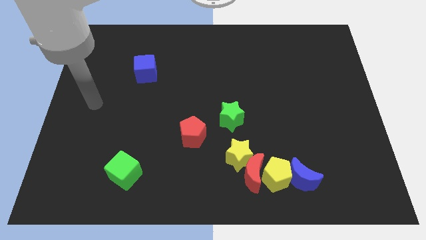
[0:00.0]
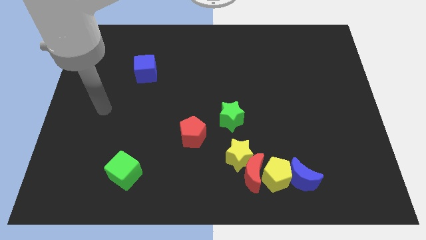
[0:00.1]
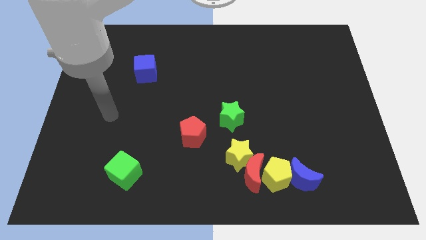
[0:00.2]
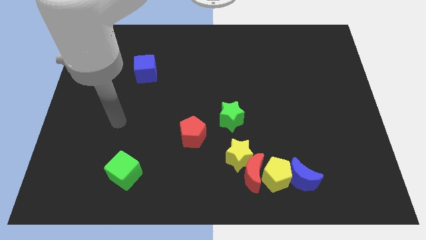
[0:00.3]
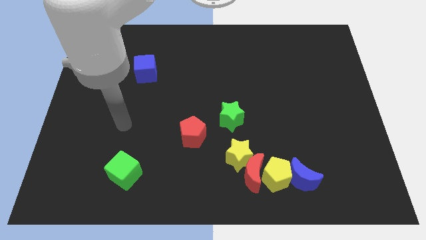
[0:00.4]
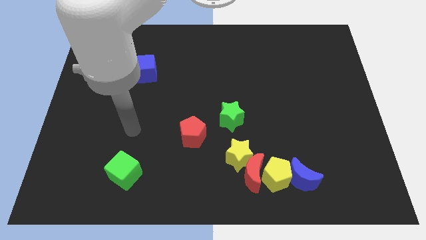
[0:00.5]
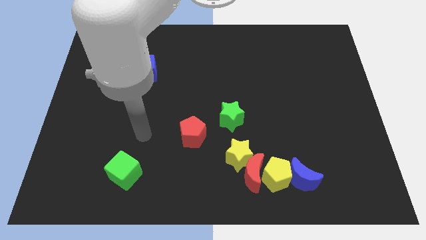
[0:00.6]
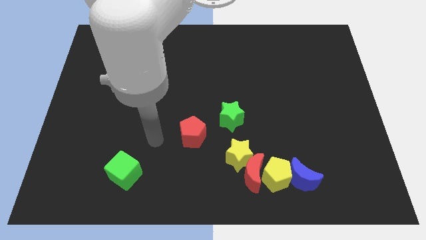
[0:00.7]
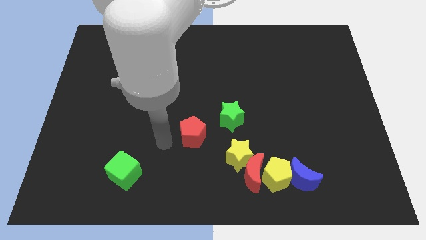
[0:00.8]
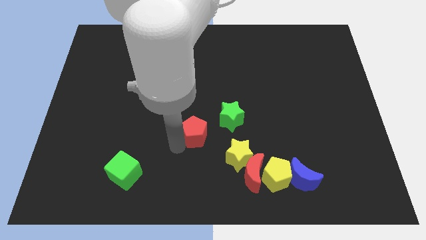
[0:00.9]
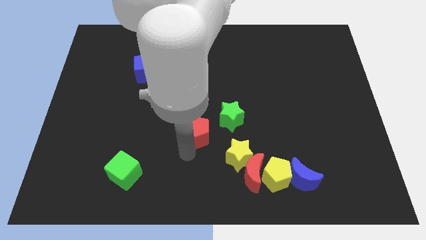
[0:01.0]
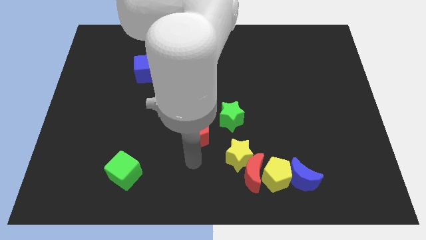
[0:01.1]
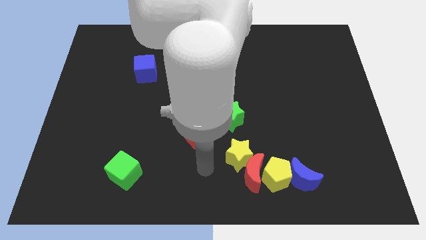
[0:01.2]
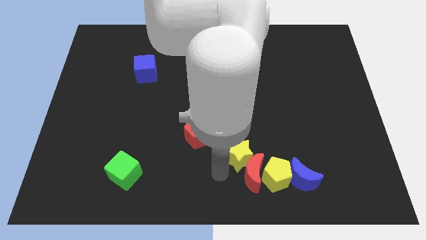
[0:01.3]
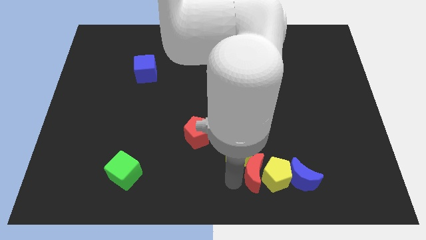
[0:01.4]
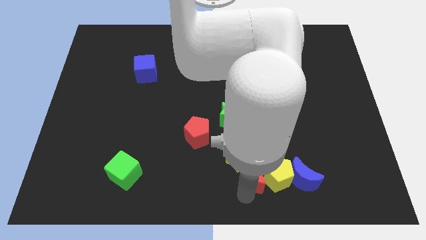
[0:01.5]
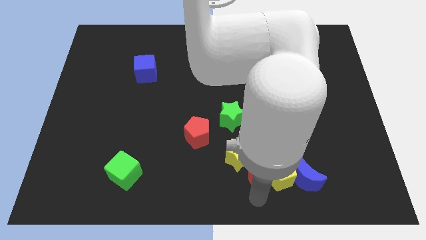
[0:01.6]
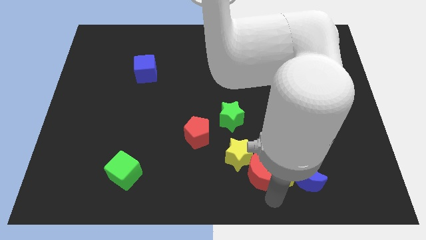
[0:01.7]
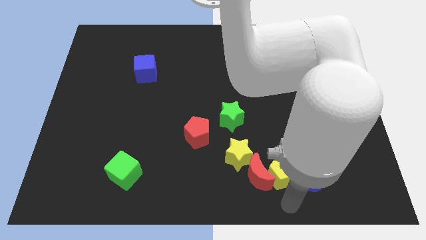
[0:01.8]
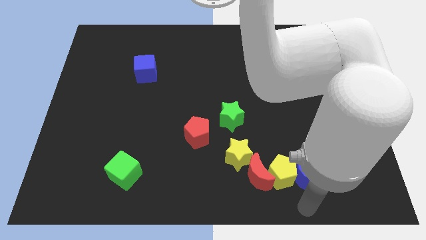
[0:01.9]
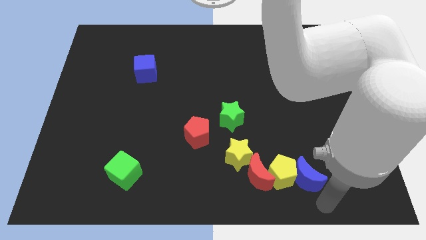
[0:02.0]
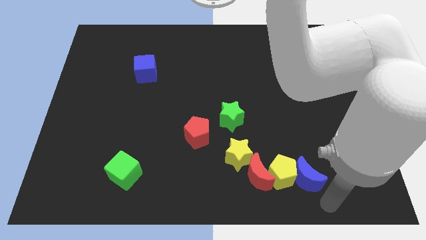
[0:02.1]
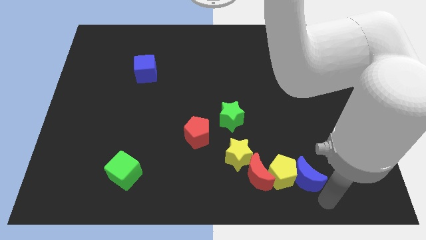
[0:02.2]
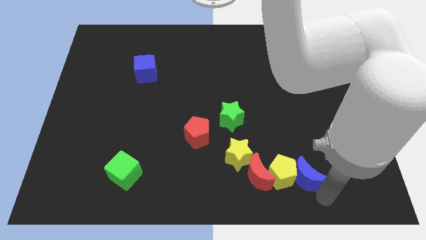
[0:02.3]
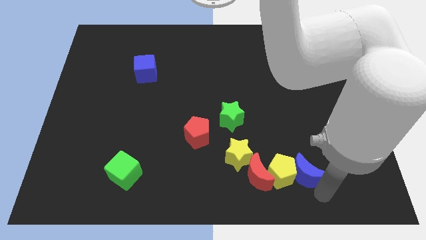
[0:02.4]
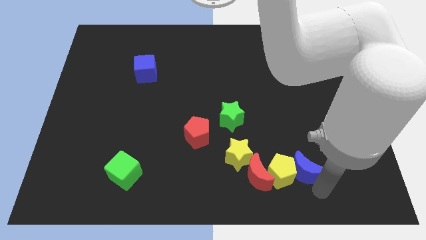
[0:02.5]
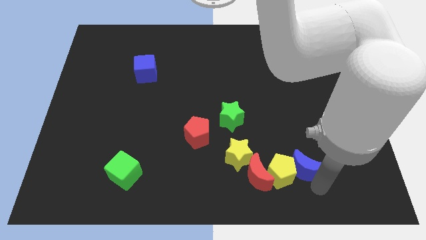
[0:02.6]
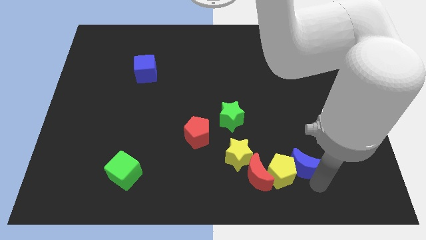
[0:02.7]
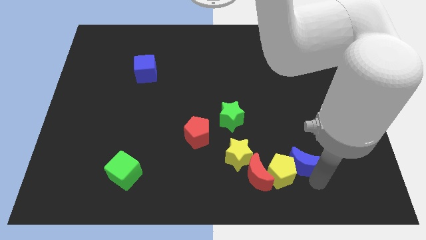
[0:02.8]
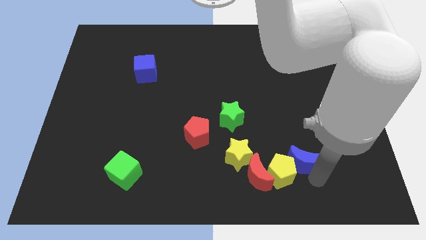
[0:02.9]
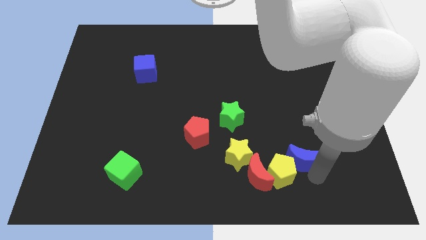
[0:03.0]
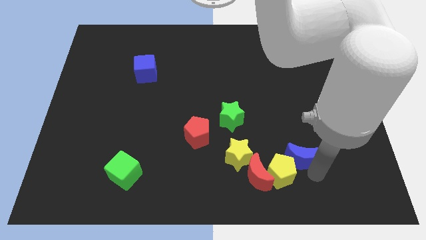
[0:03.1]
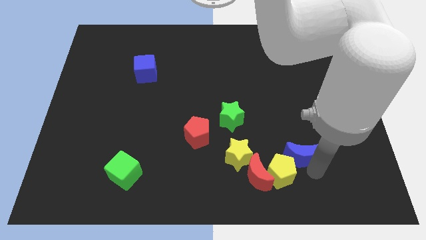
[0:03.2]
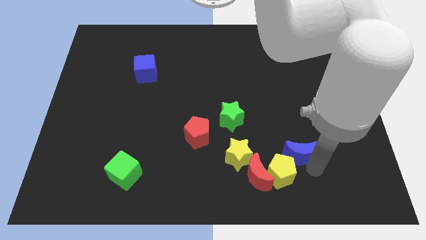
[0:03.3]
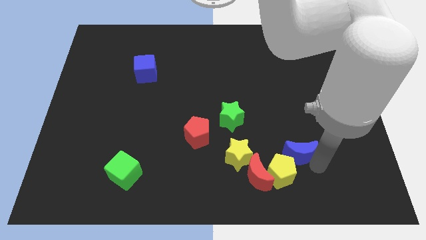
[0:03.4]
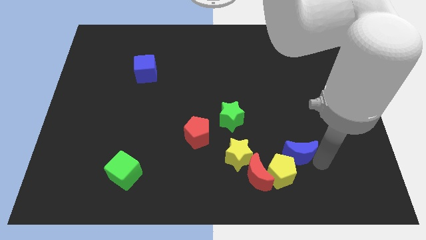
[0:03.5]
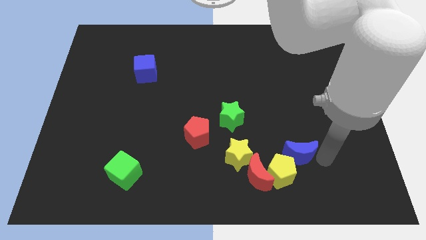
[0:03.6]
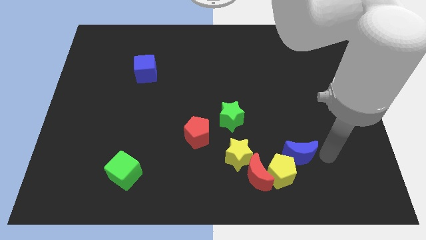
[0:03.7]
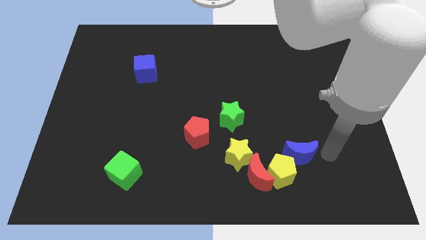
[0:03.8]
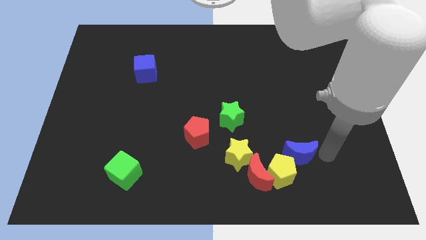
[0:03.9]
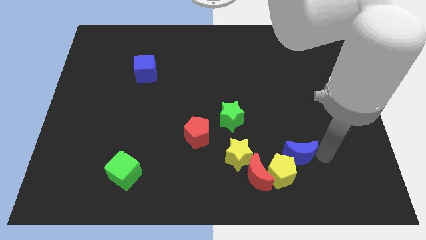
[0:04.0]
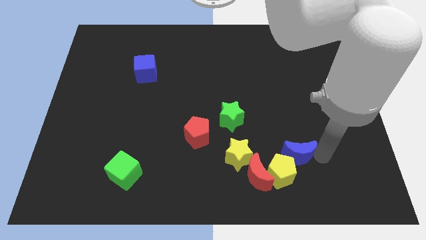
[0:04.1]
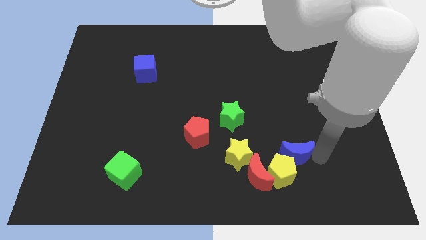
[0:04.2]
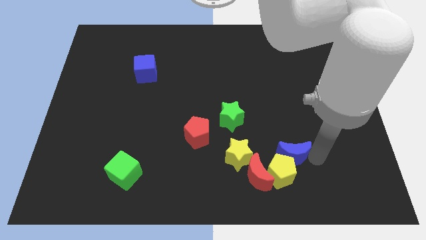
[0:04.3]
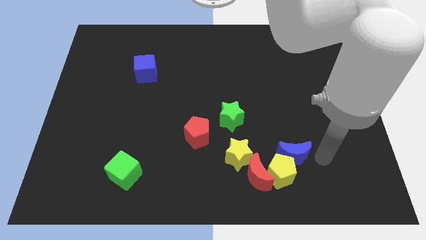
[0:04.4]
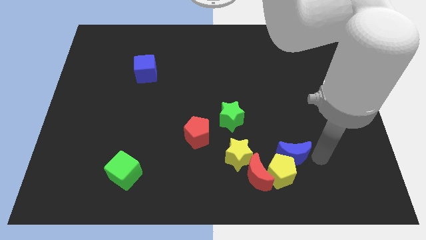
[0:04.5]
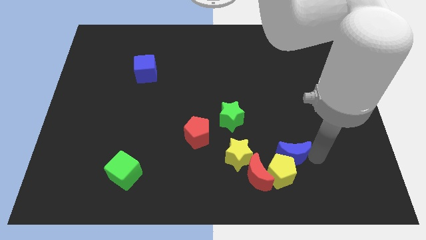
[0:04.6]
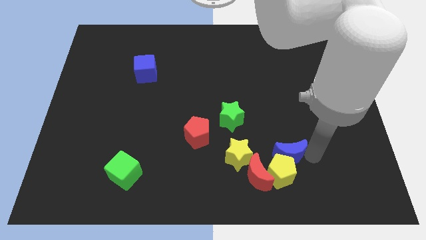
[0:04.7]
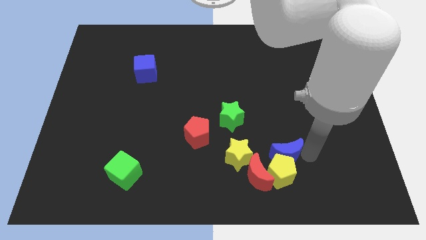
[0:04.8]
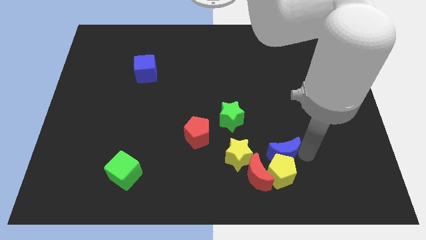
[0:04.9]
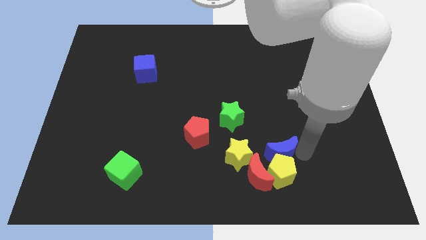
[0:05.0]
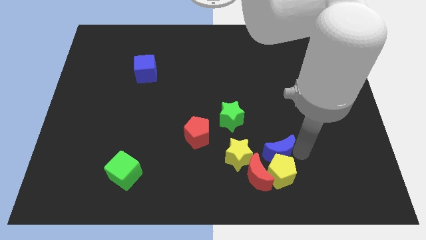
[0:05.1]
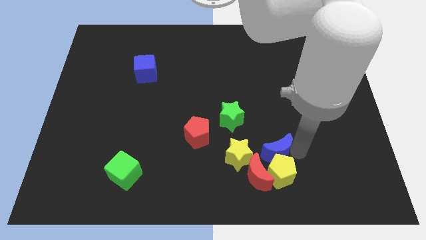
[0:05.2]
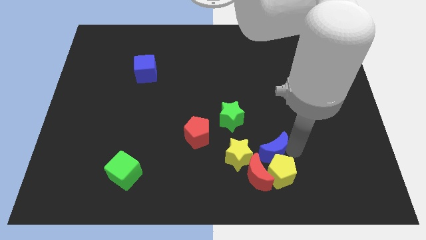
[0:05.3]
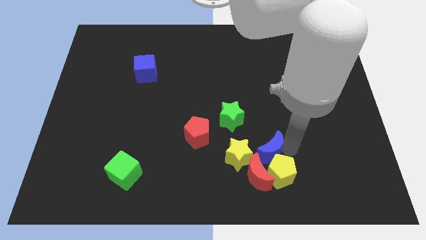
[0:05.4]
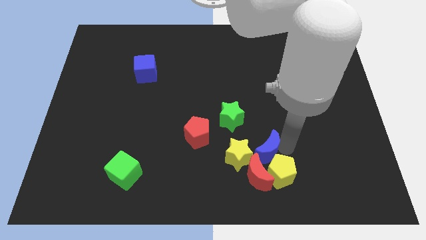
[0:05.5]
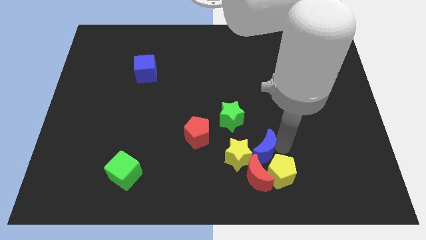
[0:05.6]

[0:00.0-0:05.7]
push the blue moon close to the yellow star

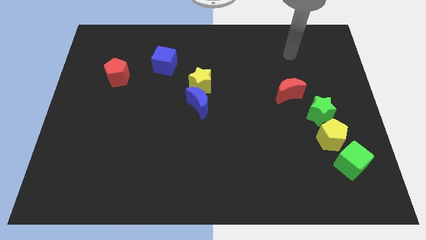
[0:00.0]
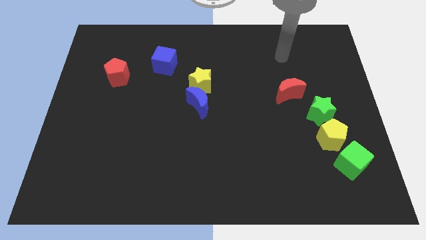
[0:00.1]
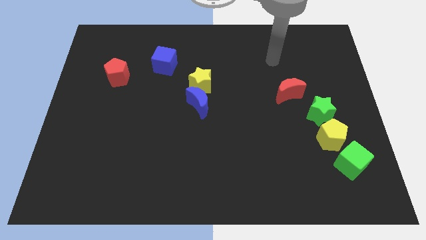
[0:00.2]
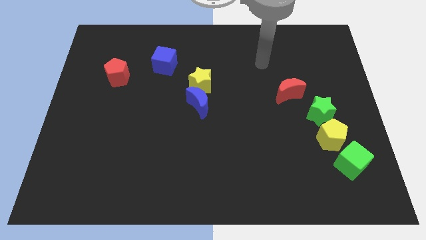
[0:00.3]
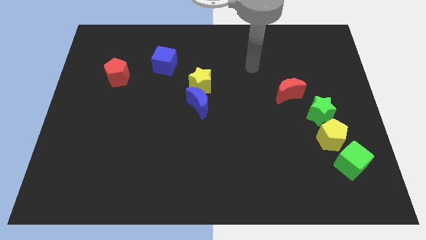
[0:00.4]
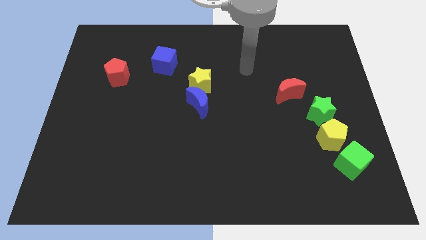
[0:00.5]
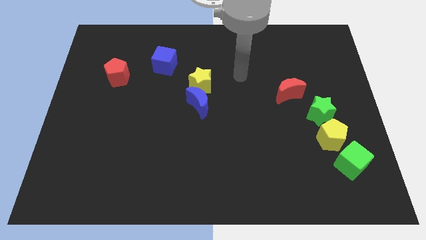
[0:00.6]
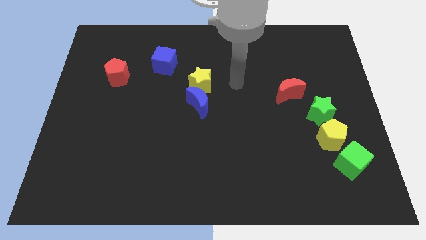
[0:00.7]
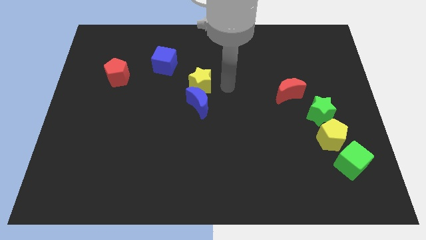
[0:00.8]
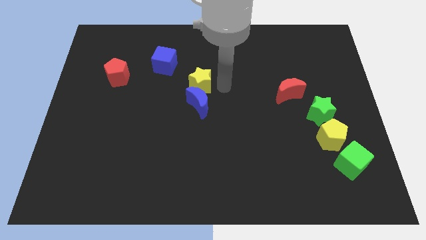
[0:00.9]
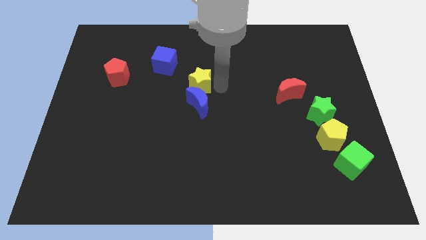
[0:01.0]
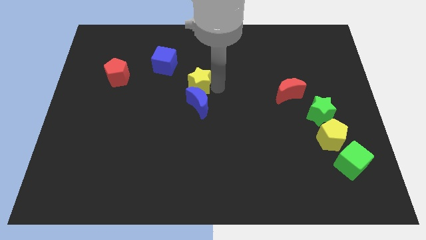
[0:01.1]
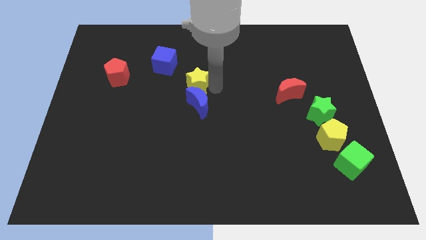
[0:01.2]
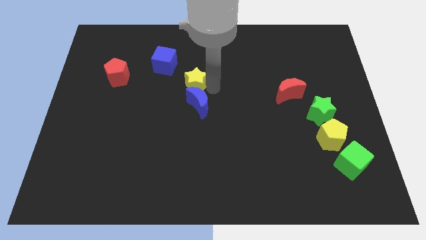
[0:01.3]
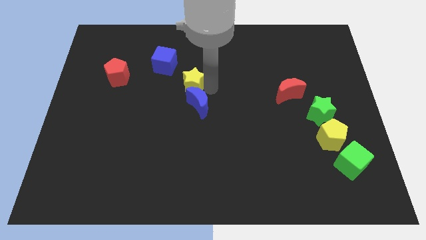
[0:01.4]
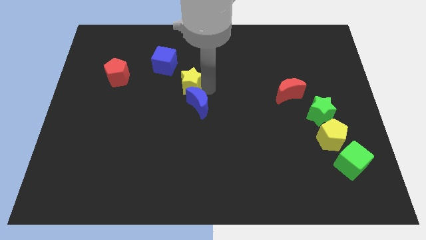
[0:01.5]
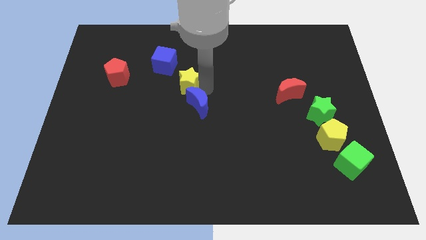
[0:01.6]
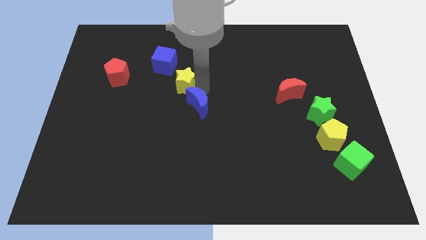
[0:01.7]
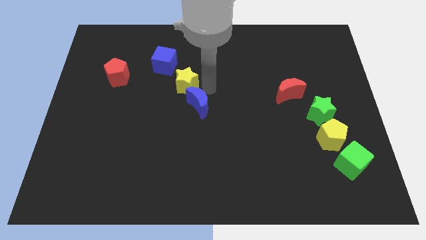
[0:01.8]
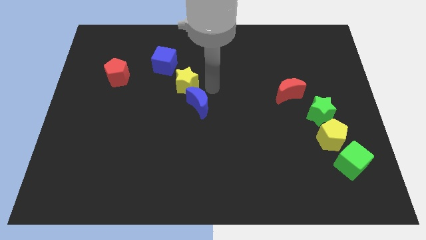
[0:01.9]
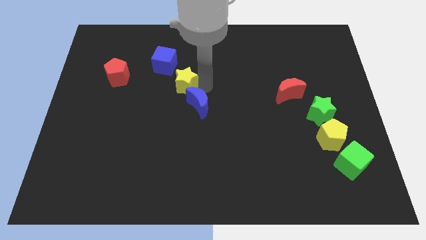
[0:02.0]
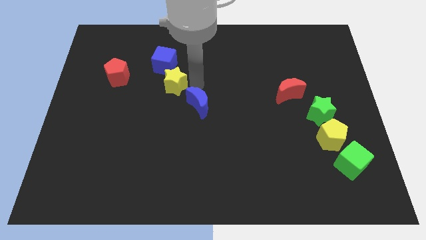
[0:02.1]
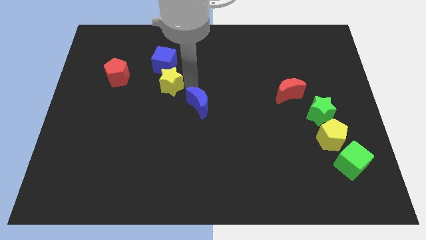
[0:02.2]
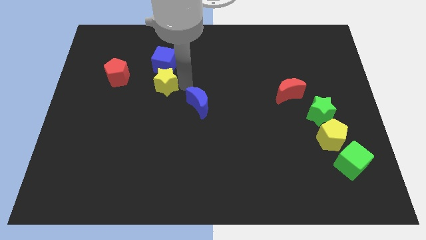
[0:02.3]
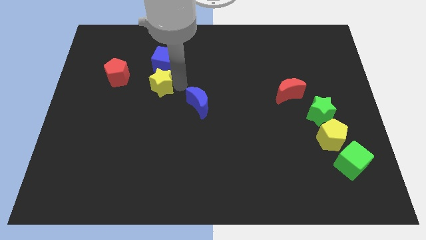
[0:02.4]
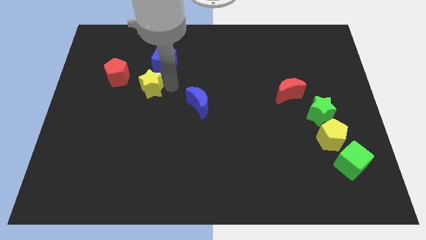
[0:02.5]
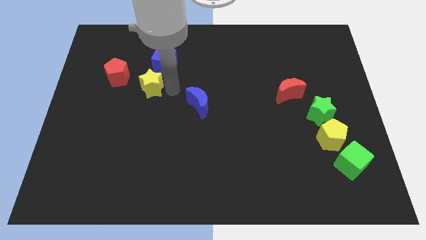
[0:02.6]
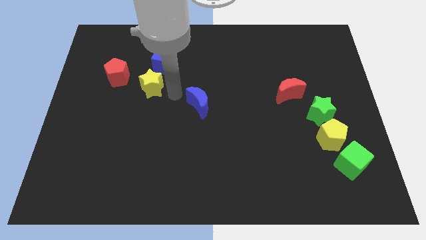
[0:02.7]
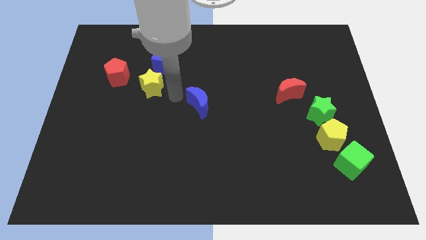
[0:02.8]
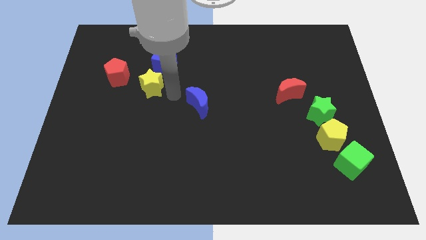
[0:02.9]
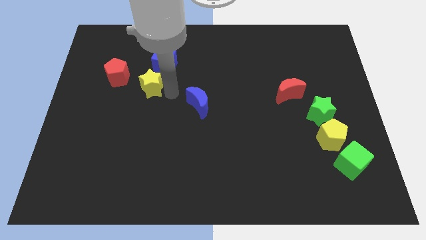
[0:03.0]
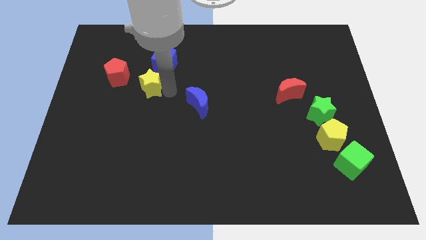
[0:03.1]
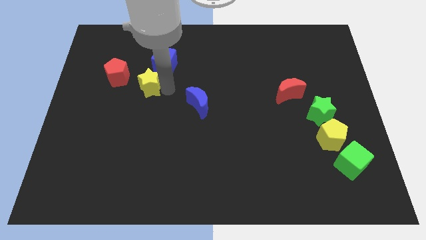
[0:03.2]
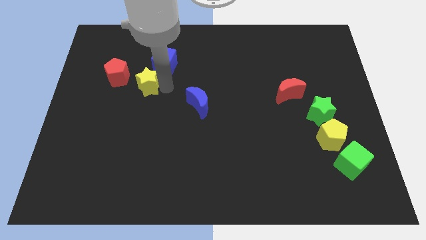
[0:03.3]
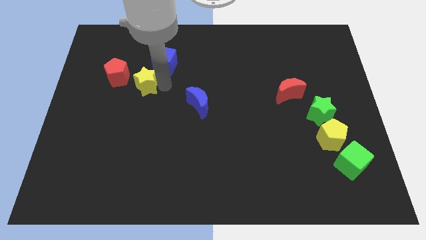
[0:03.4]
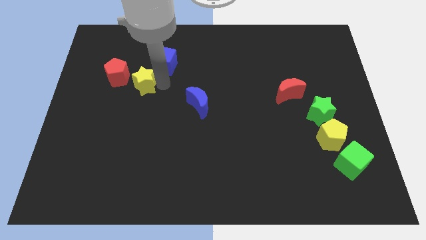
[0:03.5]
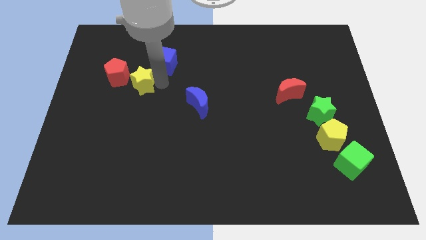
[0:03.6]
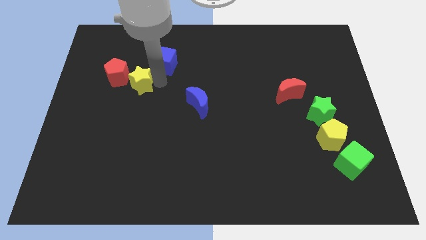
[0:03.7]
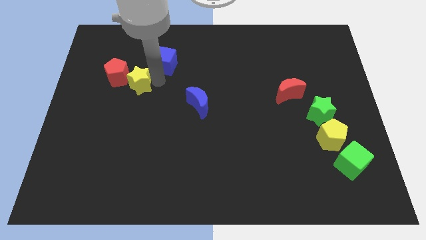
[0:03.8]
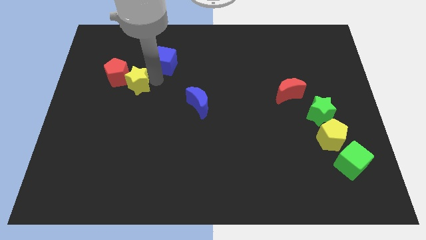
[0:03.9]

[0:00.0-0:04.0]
slide the yellow star close to the red pentagon
